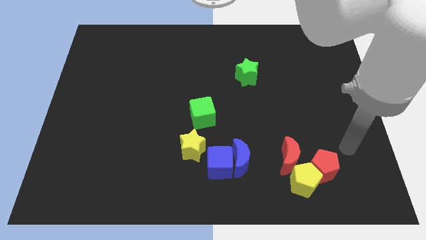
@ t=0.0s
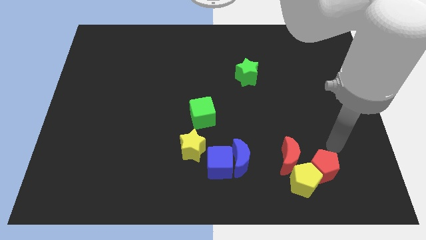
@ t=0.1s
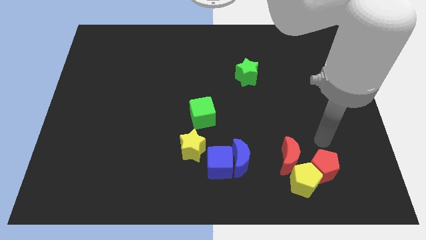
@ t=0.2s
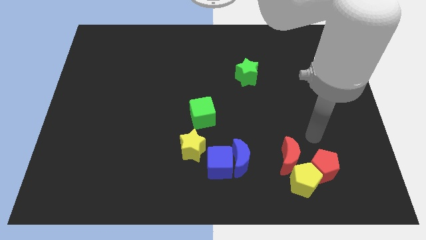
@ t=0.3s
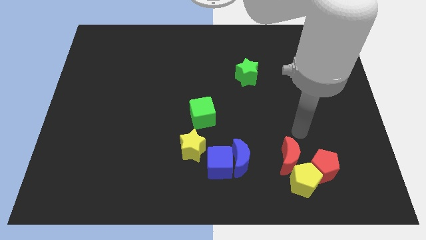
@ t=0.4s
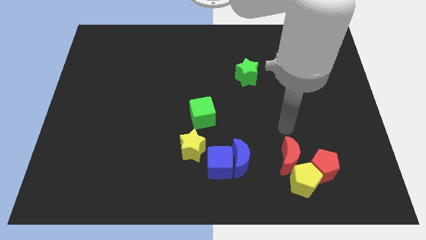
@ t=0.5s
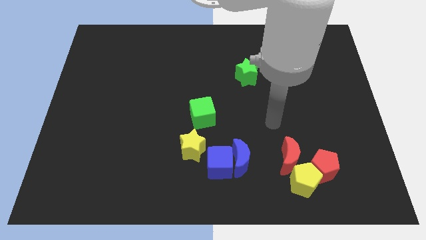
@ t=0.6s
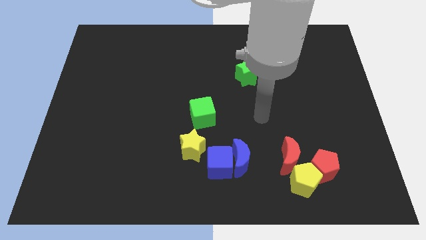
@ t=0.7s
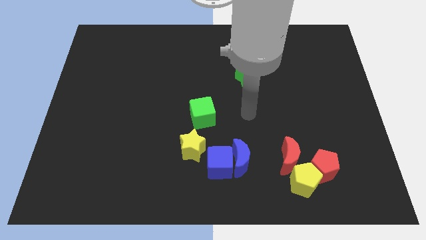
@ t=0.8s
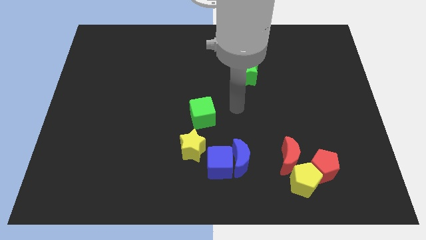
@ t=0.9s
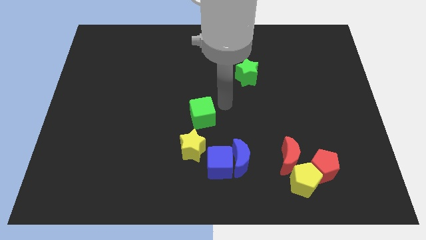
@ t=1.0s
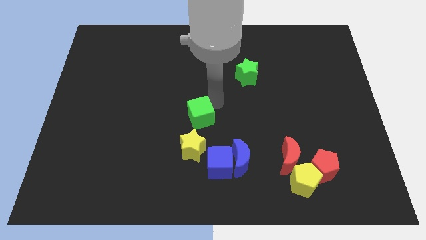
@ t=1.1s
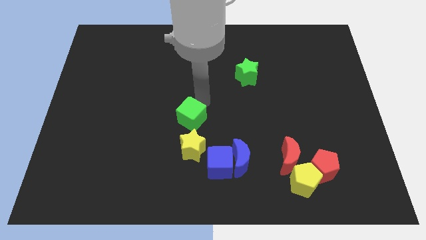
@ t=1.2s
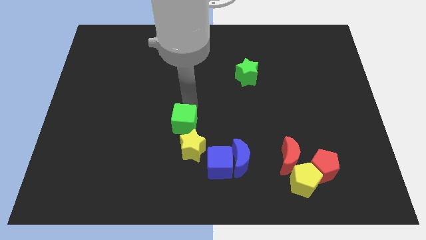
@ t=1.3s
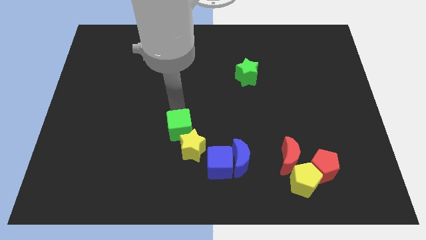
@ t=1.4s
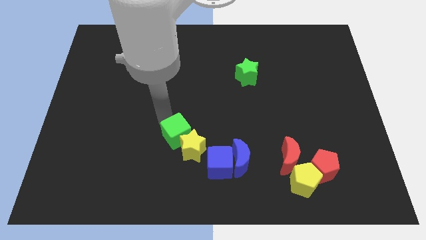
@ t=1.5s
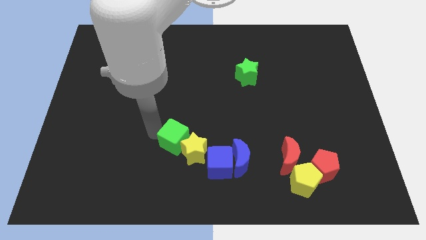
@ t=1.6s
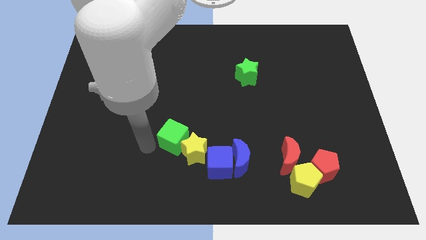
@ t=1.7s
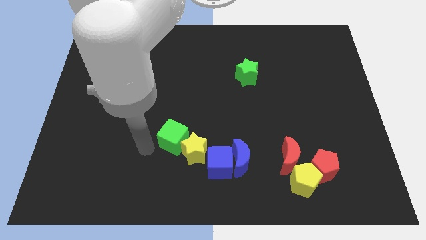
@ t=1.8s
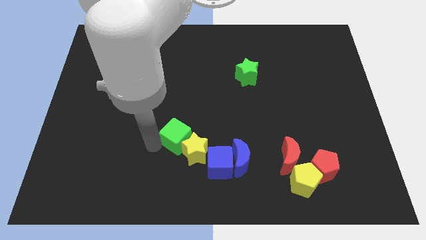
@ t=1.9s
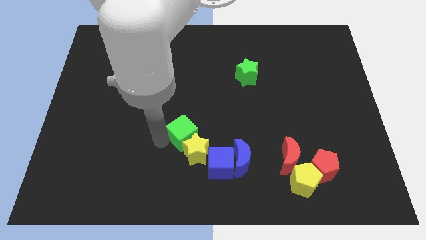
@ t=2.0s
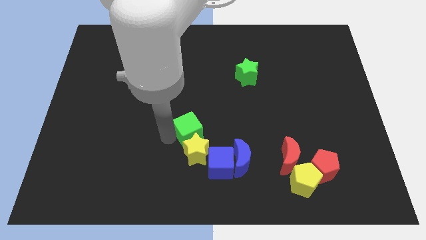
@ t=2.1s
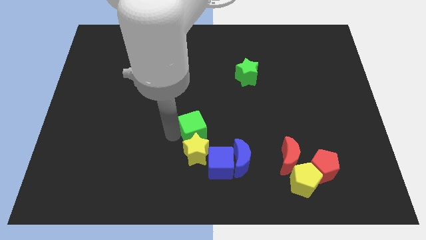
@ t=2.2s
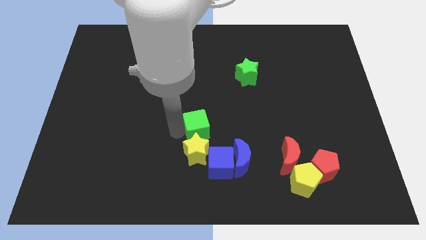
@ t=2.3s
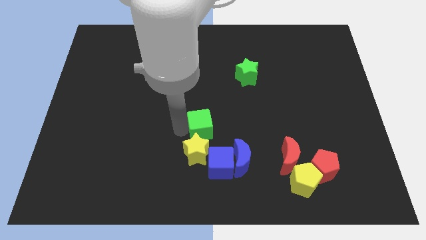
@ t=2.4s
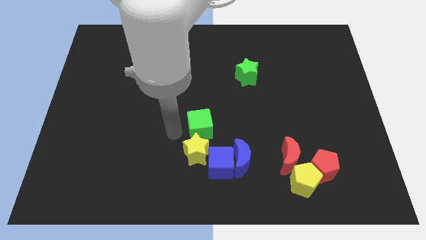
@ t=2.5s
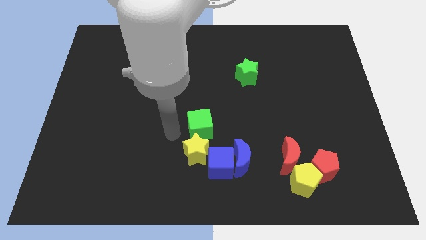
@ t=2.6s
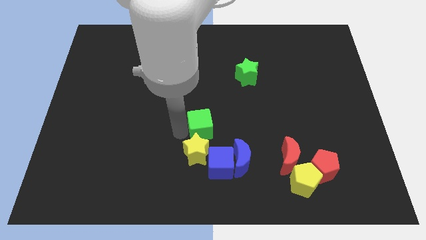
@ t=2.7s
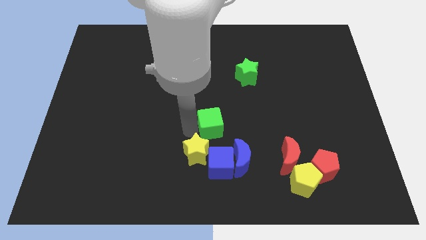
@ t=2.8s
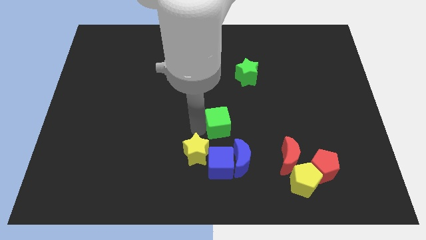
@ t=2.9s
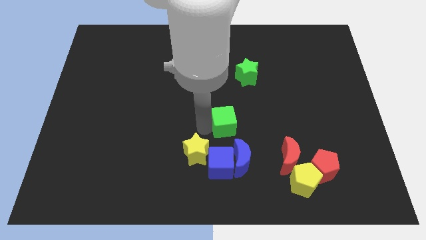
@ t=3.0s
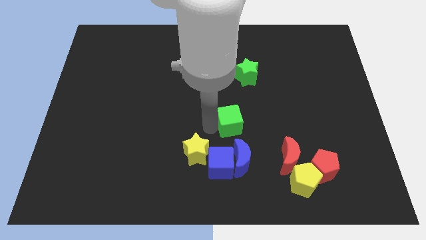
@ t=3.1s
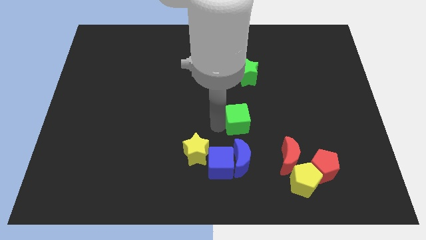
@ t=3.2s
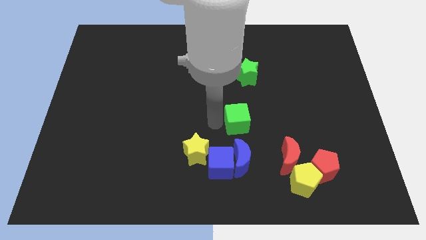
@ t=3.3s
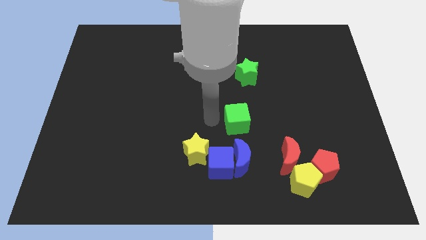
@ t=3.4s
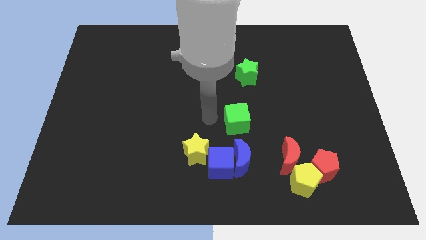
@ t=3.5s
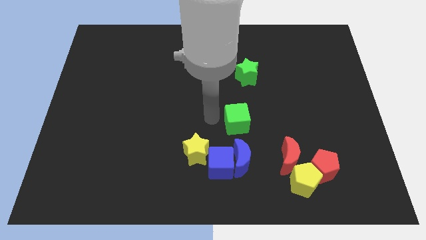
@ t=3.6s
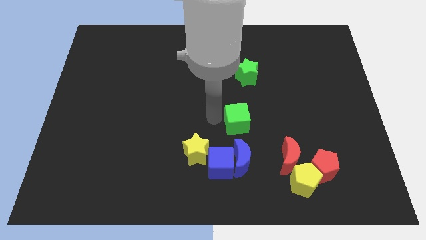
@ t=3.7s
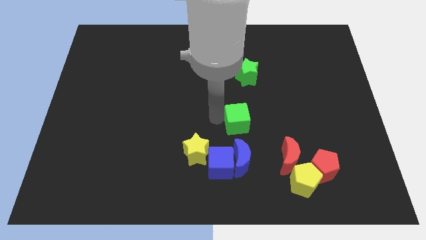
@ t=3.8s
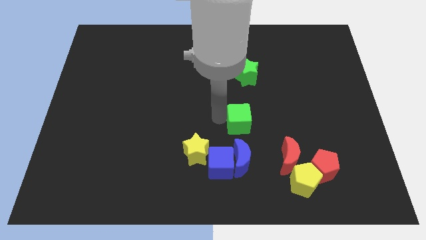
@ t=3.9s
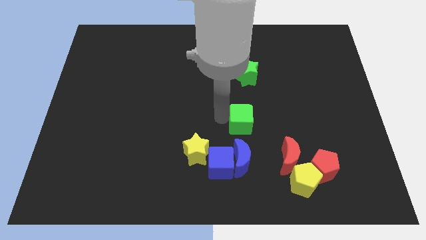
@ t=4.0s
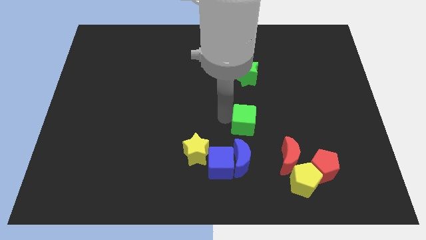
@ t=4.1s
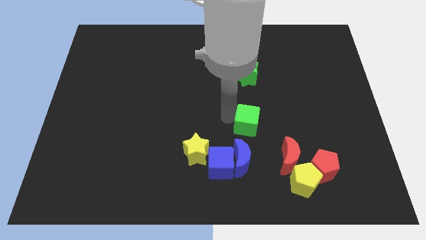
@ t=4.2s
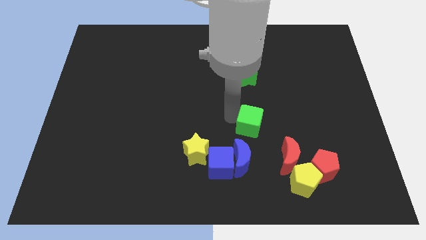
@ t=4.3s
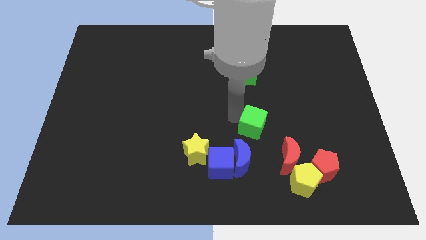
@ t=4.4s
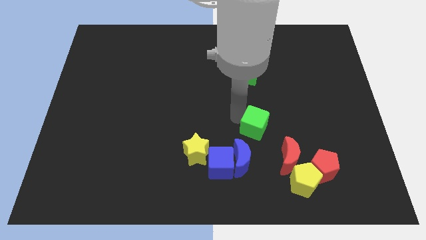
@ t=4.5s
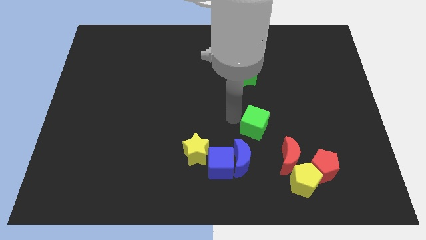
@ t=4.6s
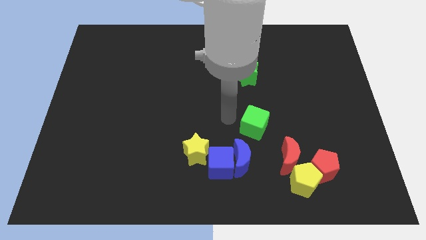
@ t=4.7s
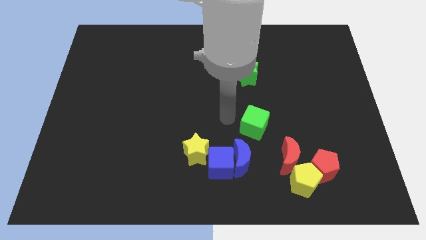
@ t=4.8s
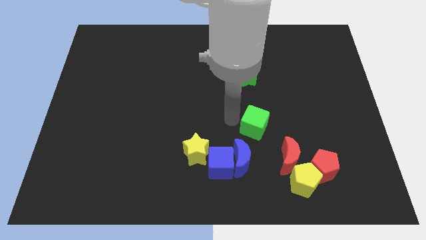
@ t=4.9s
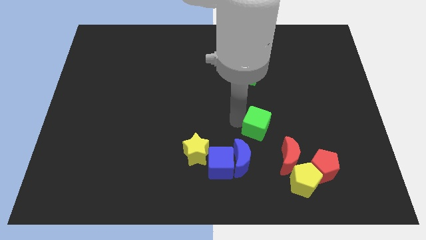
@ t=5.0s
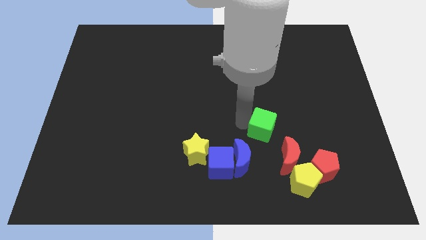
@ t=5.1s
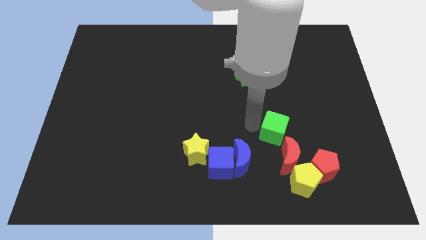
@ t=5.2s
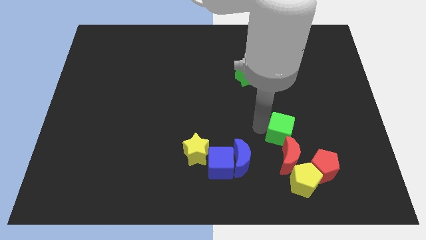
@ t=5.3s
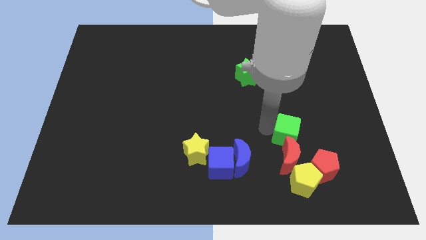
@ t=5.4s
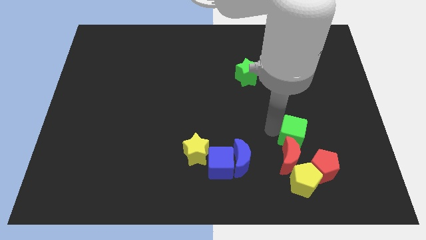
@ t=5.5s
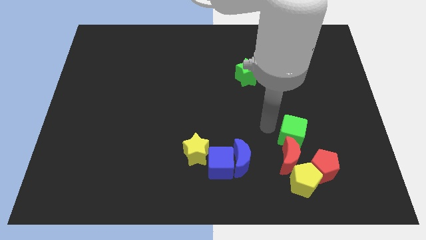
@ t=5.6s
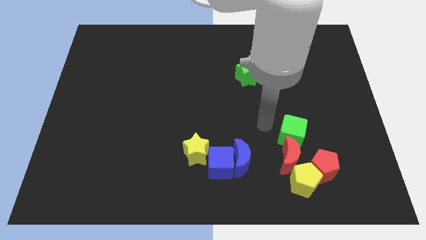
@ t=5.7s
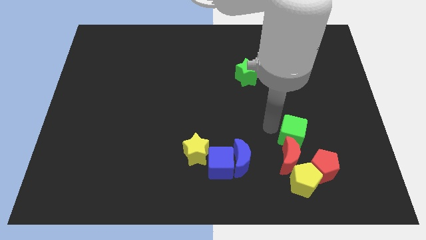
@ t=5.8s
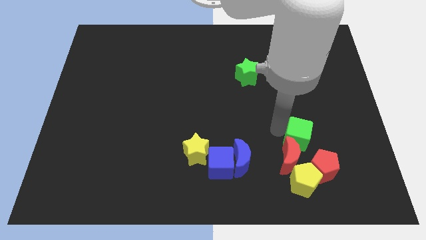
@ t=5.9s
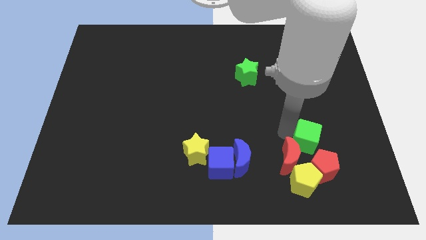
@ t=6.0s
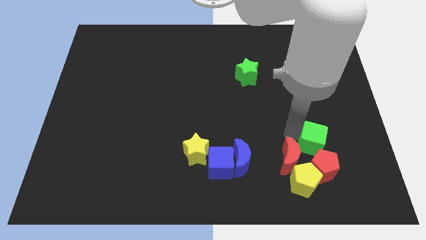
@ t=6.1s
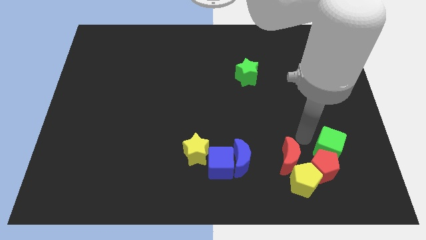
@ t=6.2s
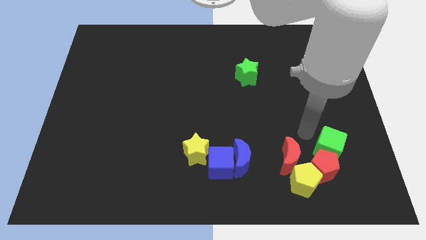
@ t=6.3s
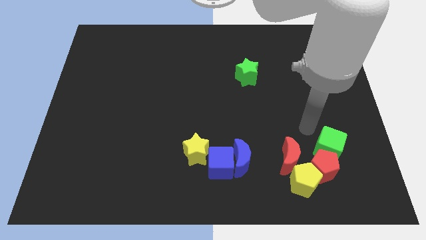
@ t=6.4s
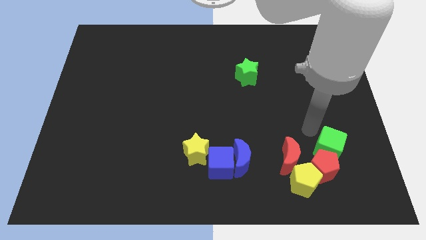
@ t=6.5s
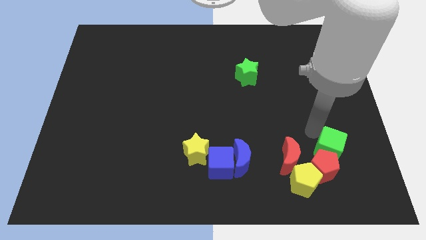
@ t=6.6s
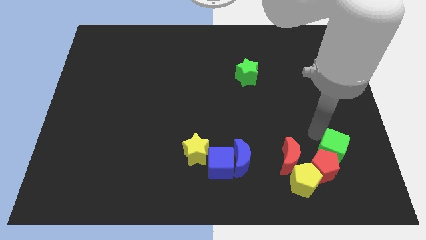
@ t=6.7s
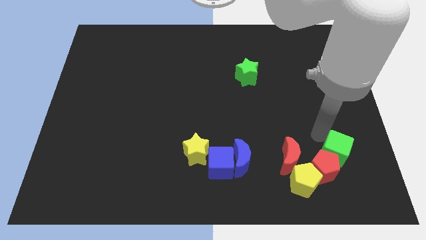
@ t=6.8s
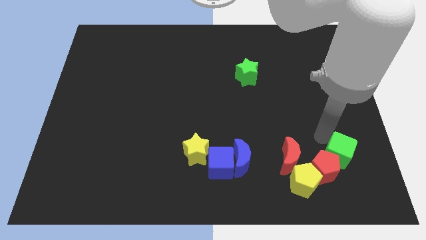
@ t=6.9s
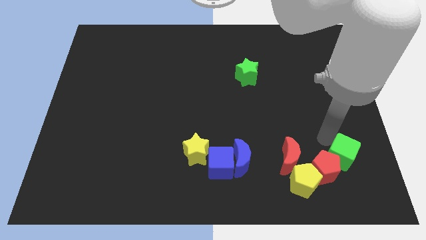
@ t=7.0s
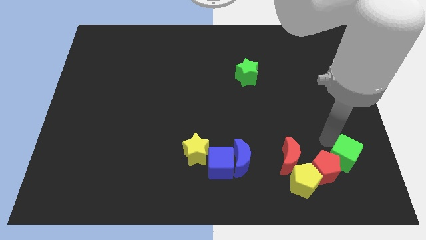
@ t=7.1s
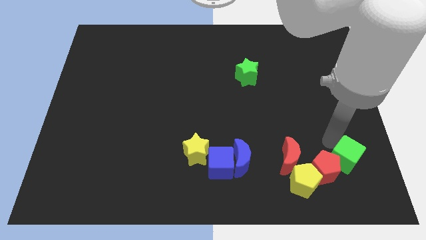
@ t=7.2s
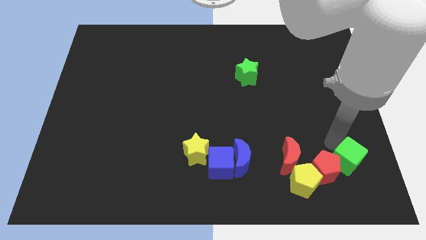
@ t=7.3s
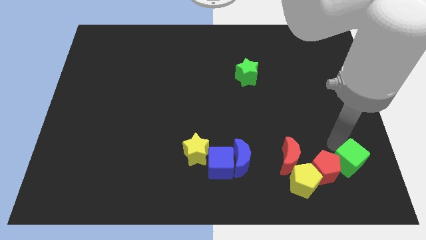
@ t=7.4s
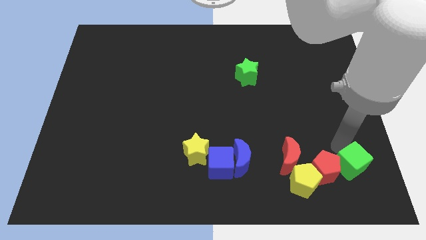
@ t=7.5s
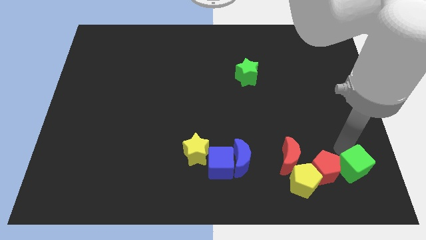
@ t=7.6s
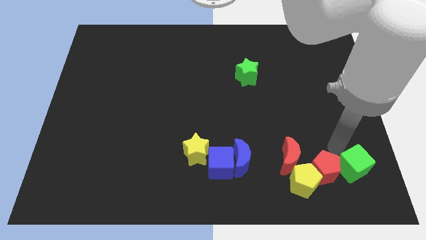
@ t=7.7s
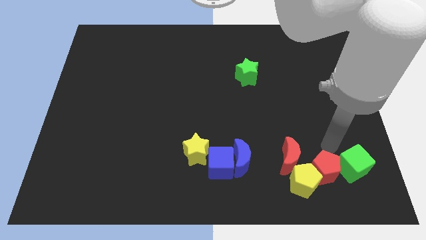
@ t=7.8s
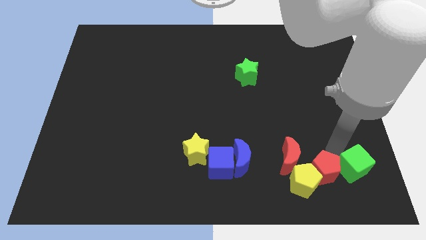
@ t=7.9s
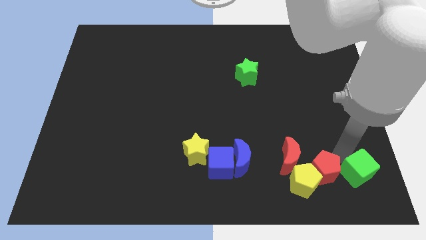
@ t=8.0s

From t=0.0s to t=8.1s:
move the green cube to the bottom right
